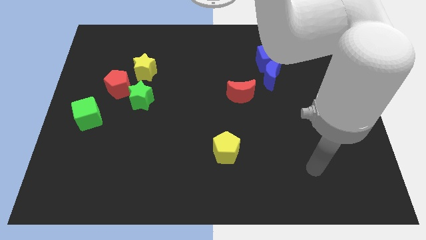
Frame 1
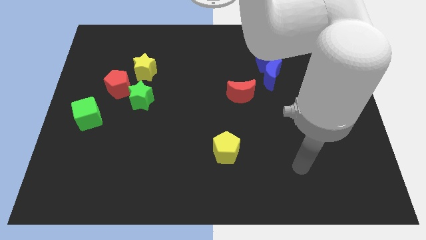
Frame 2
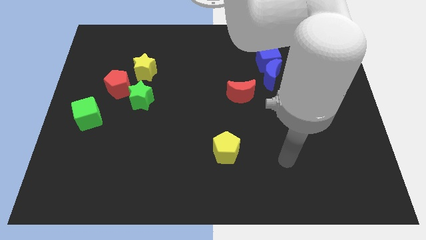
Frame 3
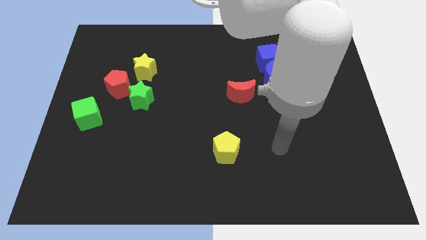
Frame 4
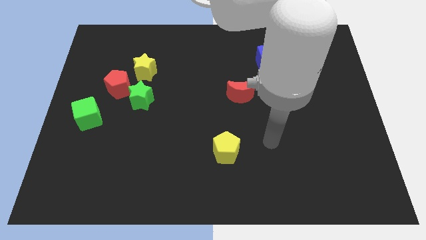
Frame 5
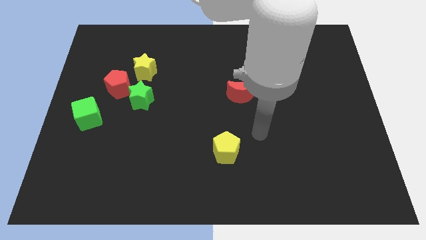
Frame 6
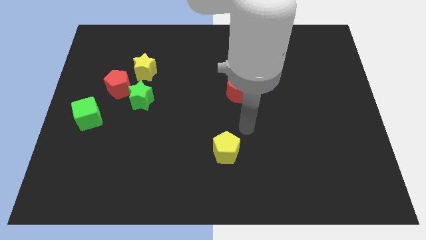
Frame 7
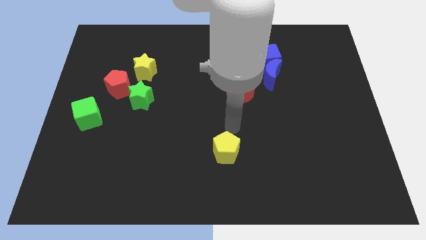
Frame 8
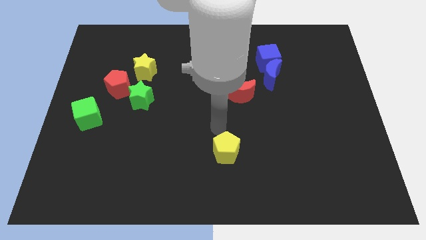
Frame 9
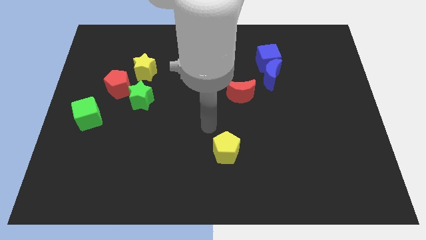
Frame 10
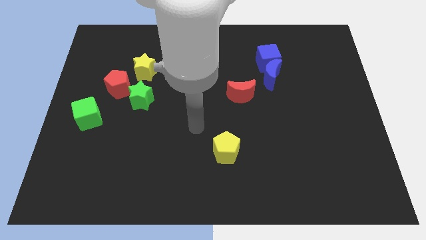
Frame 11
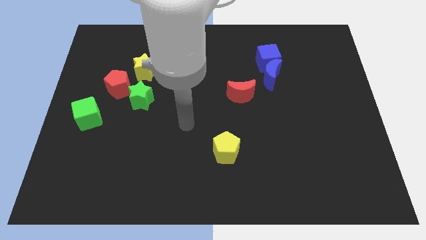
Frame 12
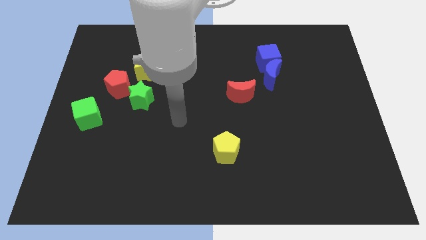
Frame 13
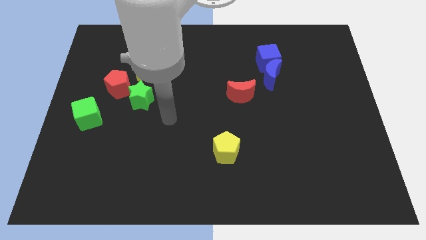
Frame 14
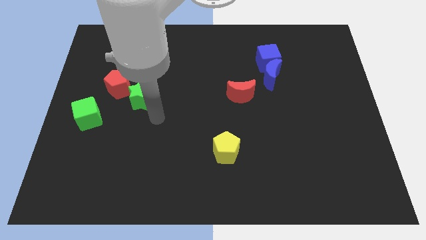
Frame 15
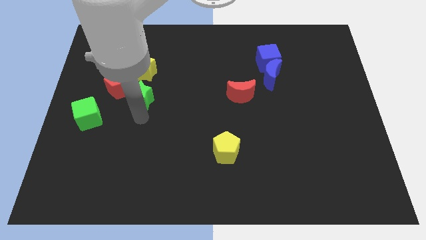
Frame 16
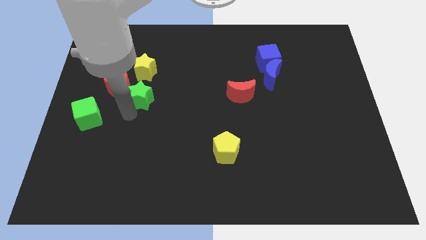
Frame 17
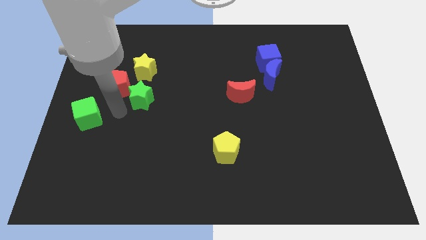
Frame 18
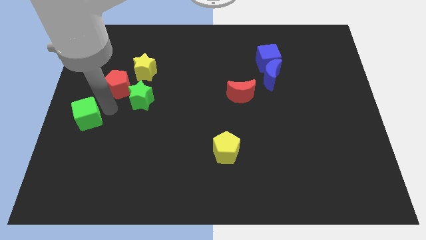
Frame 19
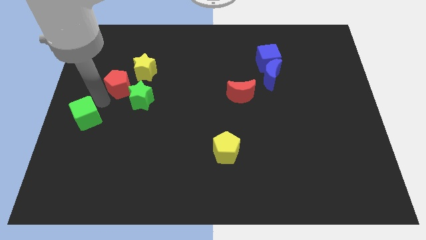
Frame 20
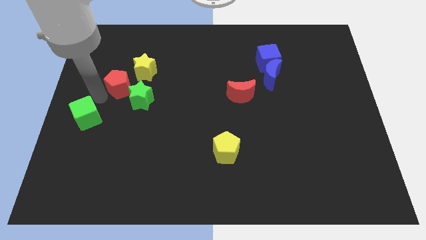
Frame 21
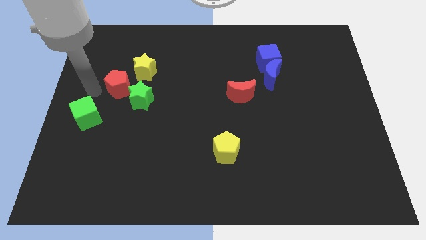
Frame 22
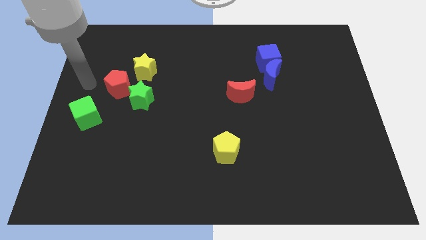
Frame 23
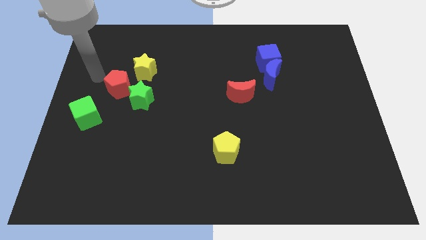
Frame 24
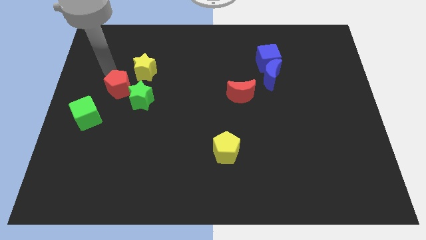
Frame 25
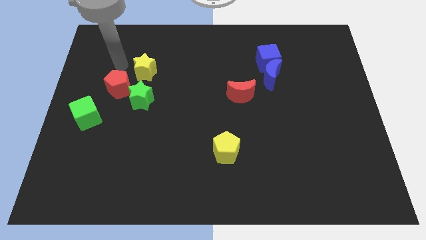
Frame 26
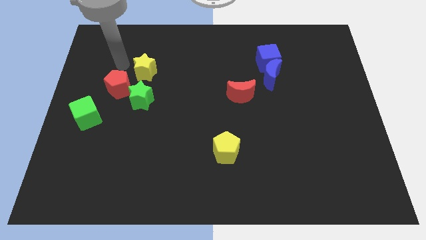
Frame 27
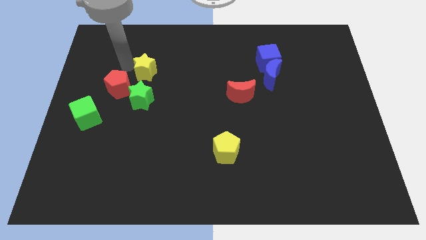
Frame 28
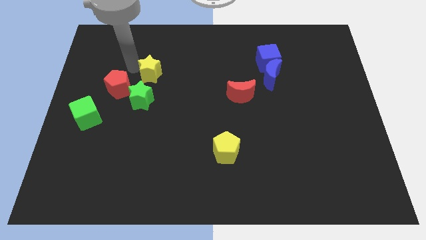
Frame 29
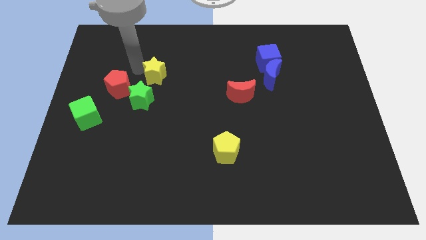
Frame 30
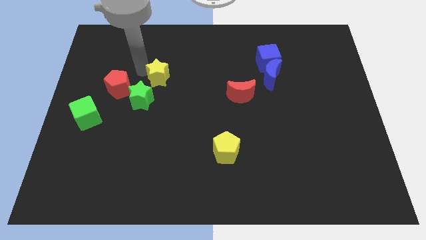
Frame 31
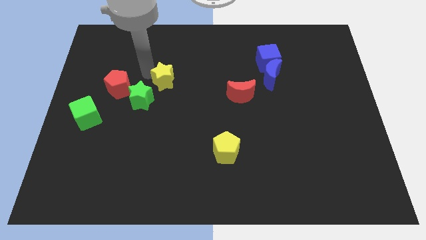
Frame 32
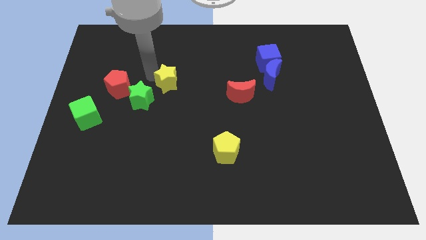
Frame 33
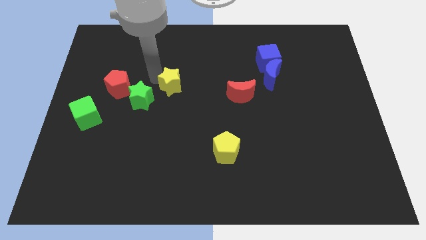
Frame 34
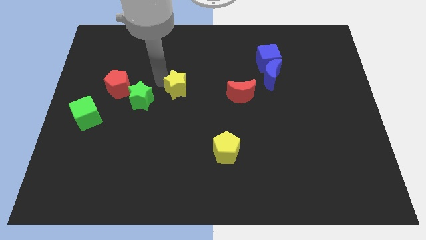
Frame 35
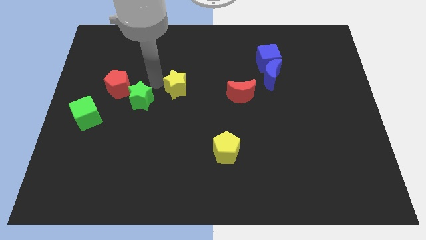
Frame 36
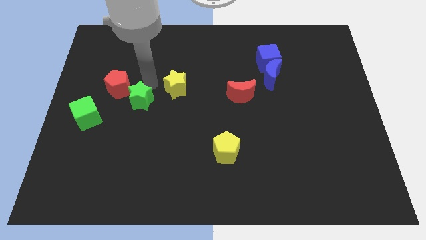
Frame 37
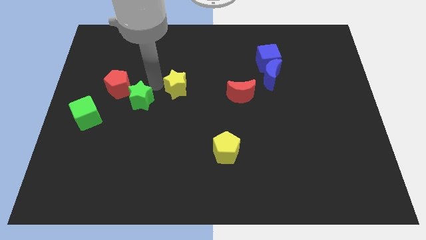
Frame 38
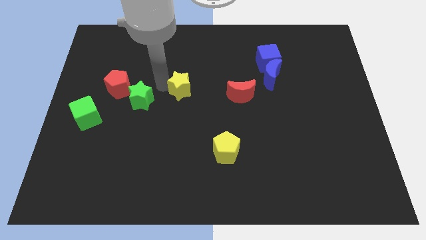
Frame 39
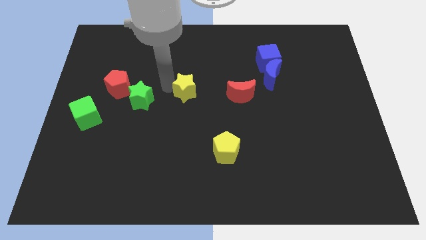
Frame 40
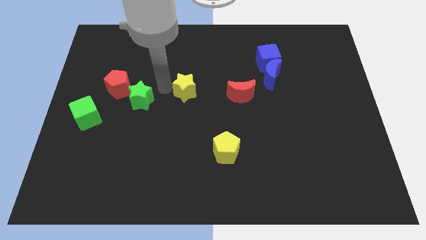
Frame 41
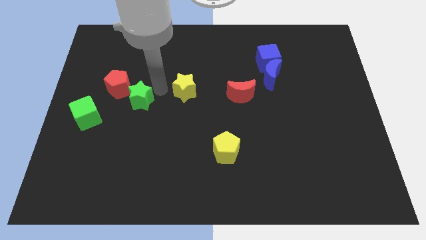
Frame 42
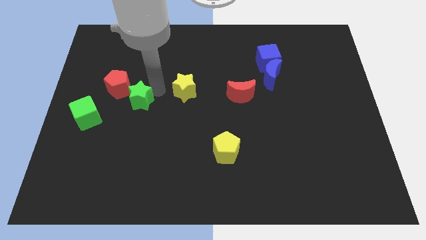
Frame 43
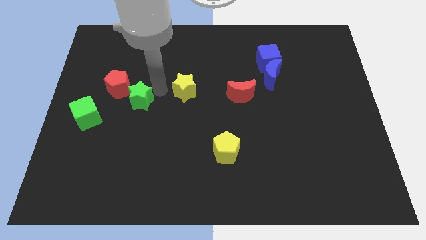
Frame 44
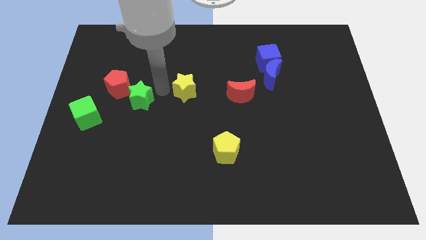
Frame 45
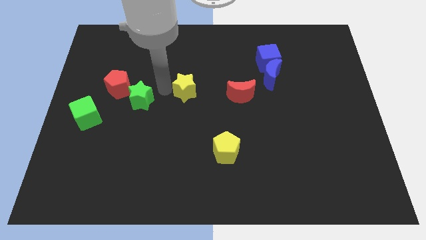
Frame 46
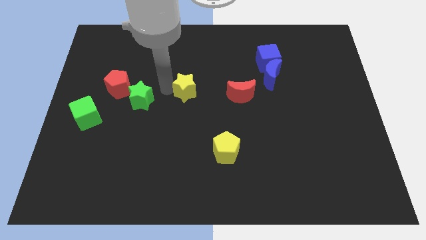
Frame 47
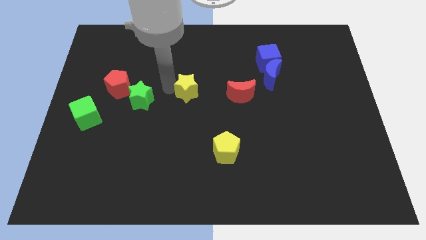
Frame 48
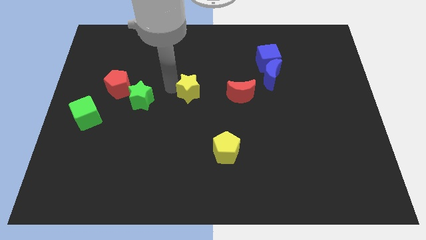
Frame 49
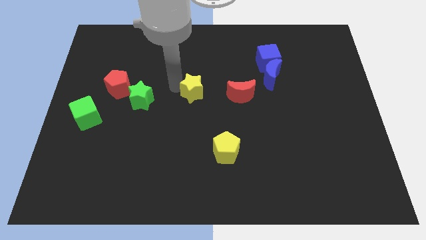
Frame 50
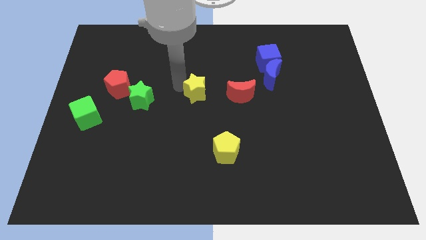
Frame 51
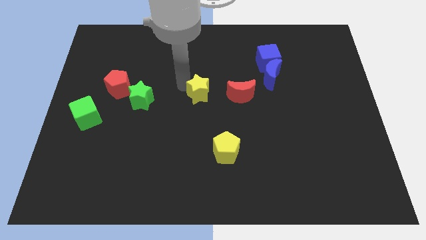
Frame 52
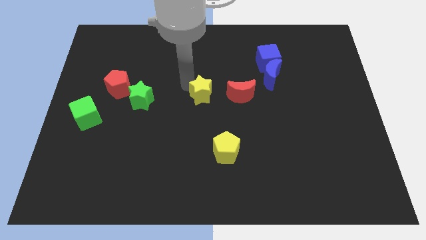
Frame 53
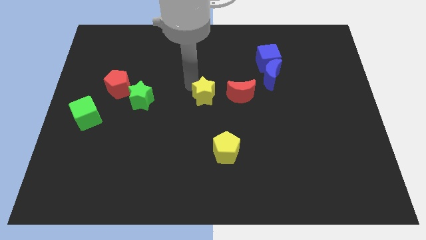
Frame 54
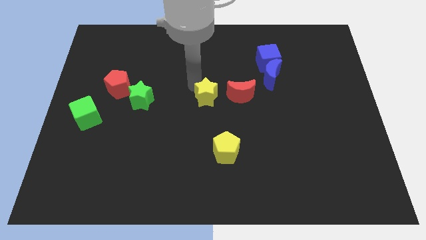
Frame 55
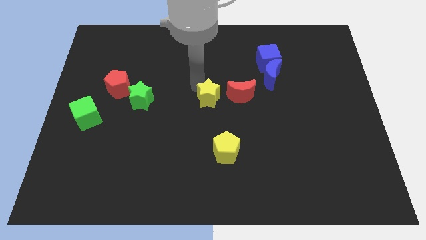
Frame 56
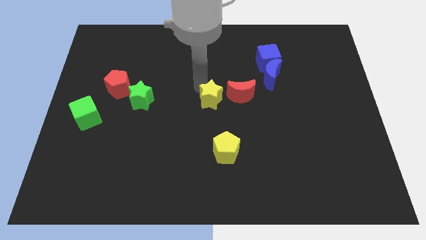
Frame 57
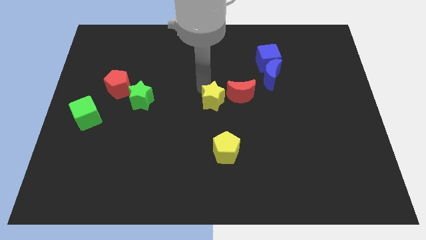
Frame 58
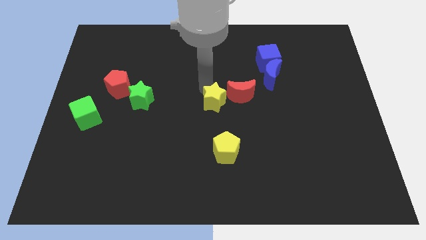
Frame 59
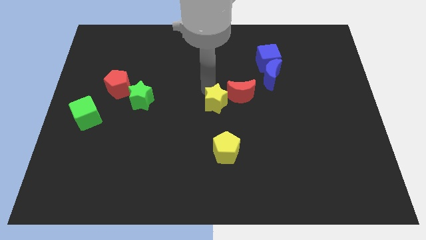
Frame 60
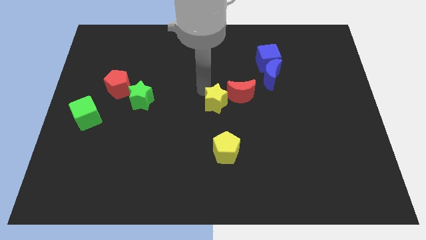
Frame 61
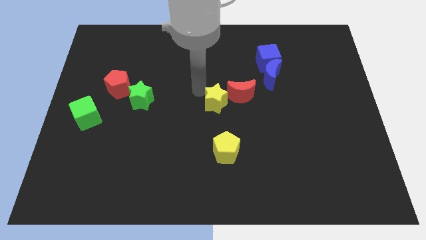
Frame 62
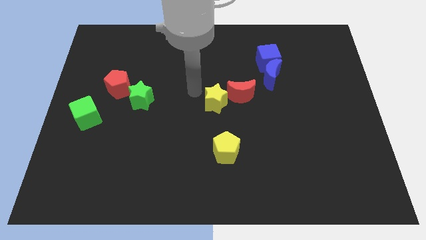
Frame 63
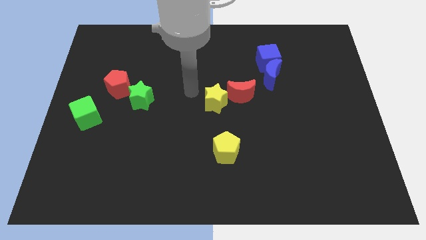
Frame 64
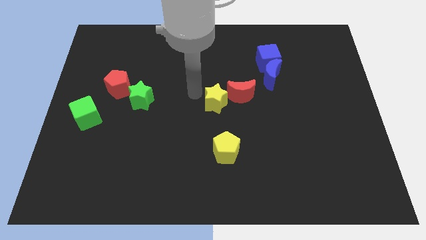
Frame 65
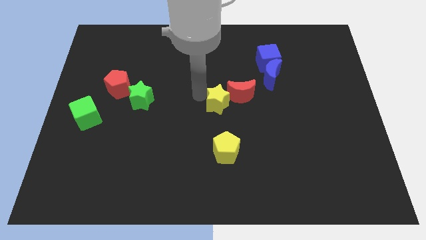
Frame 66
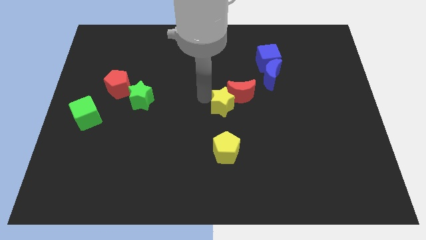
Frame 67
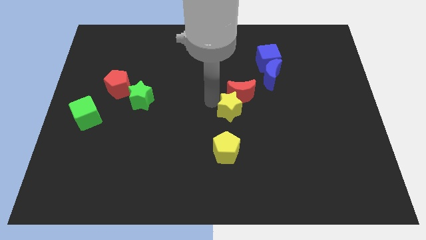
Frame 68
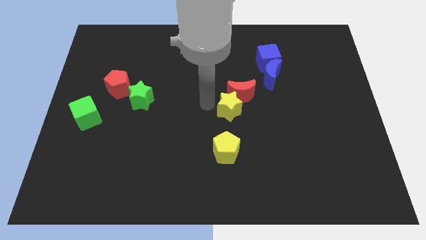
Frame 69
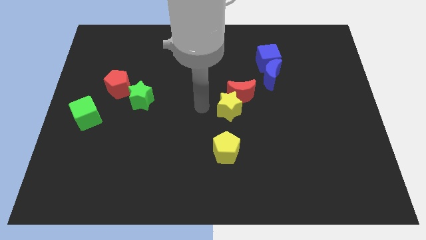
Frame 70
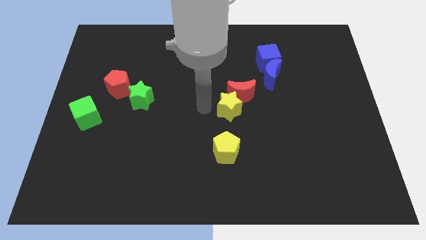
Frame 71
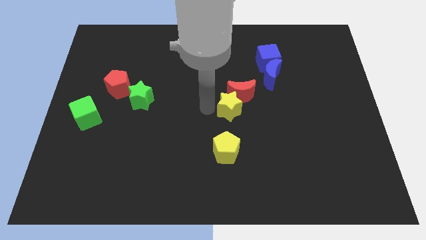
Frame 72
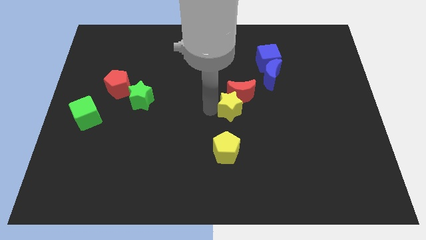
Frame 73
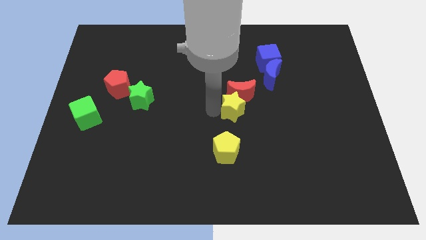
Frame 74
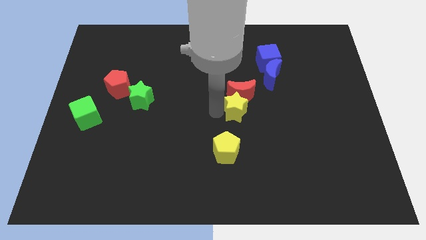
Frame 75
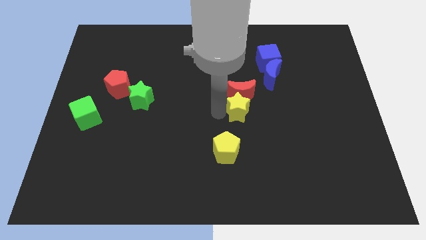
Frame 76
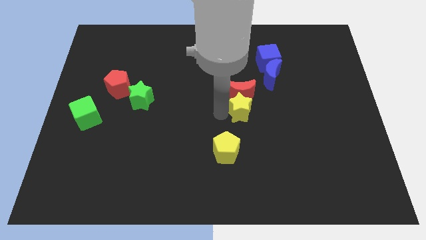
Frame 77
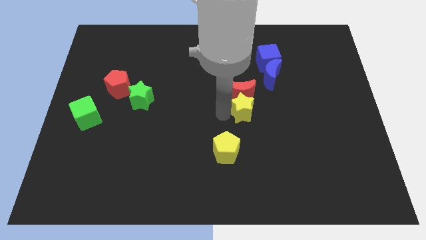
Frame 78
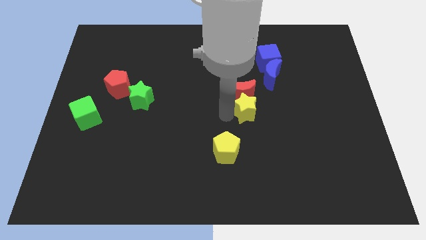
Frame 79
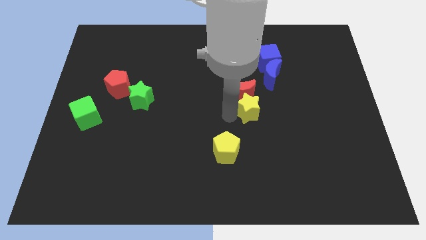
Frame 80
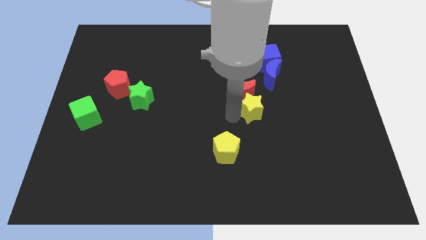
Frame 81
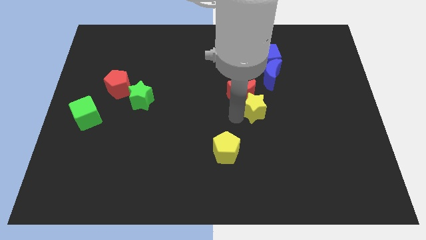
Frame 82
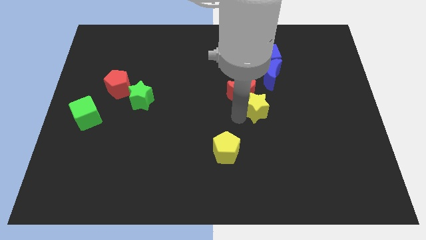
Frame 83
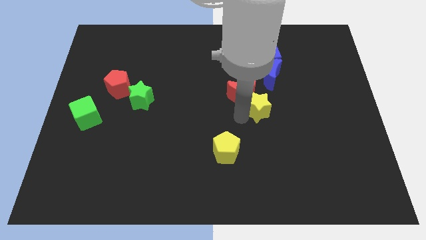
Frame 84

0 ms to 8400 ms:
put the yellow star right of the red moon
